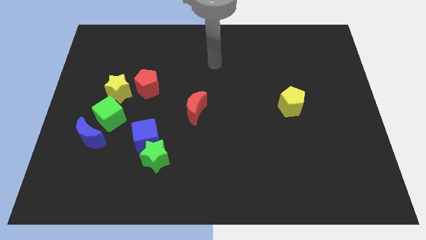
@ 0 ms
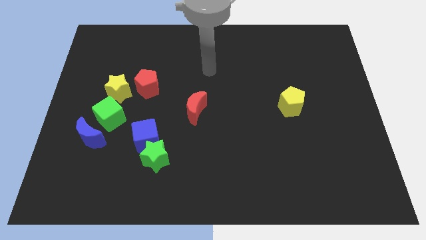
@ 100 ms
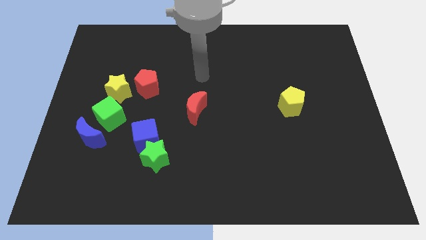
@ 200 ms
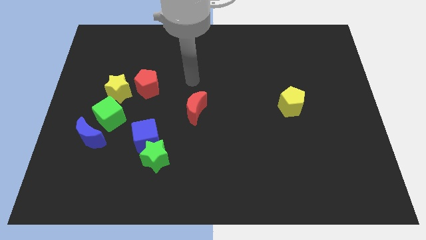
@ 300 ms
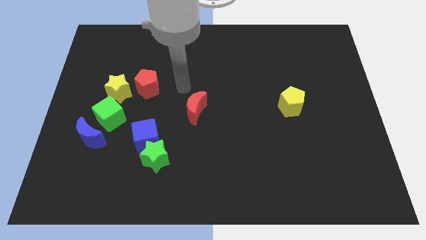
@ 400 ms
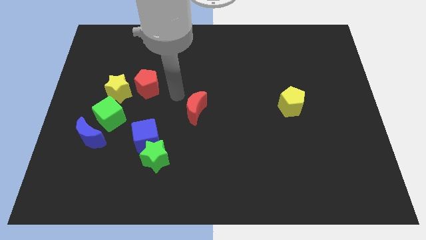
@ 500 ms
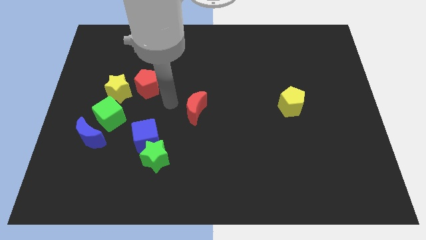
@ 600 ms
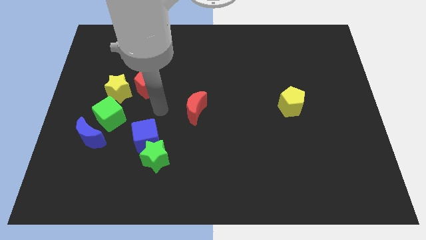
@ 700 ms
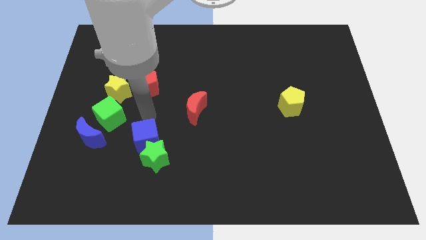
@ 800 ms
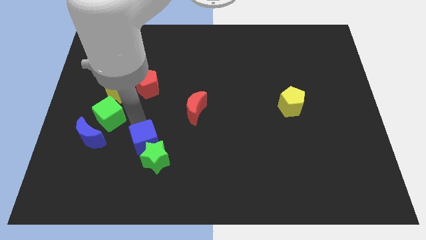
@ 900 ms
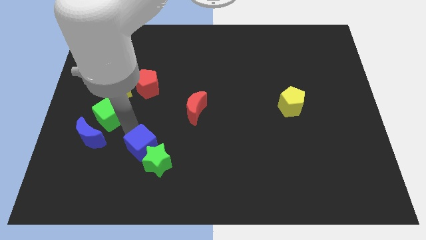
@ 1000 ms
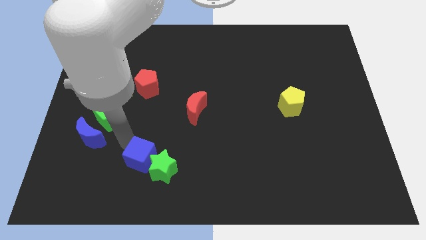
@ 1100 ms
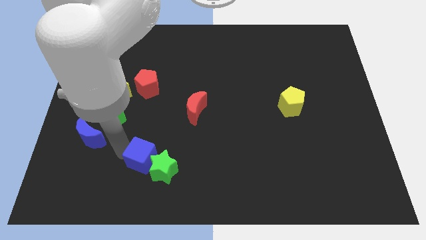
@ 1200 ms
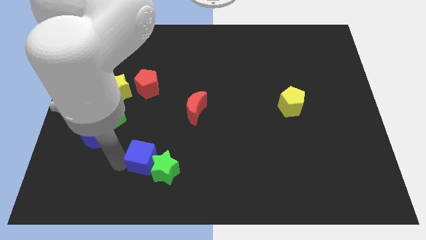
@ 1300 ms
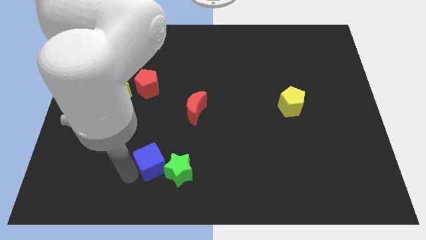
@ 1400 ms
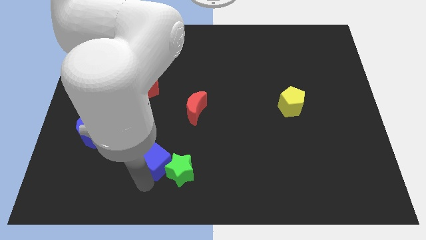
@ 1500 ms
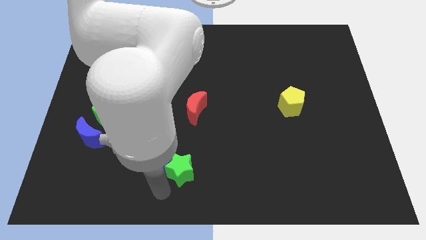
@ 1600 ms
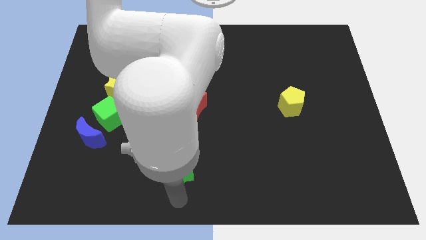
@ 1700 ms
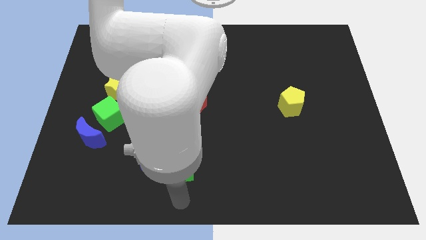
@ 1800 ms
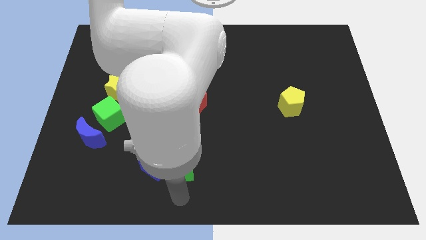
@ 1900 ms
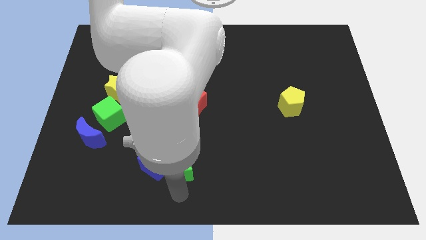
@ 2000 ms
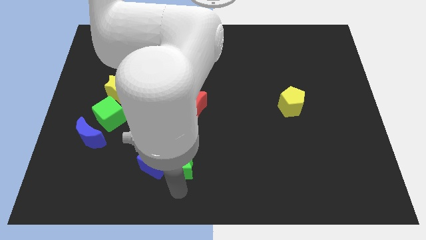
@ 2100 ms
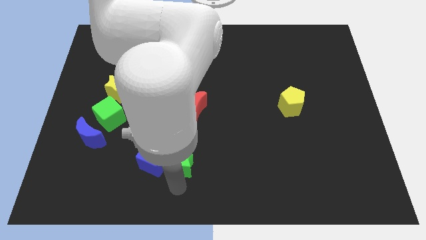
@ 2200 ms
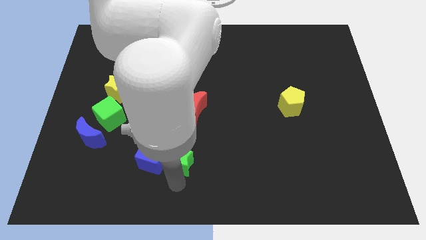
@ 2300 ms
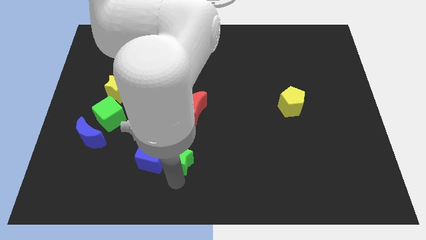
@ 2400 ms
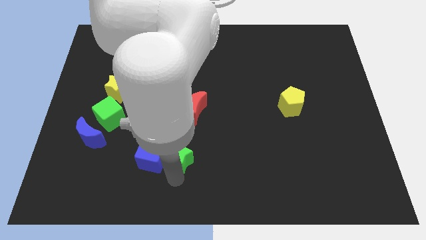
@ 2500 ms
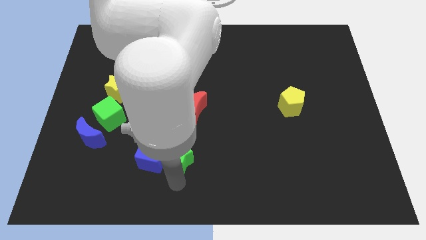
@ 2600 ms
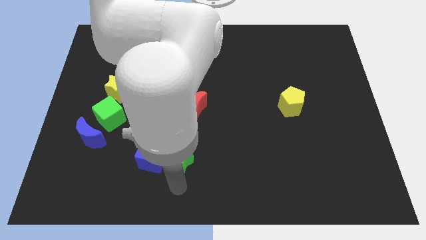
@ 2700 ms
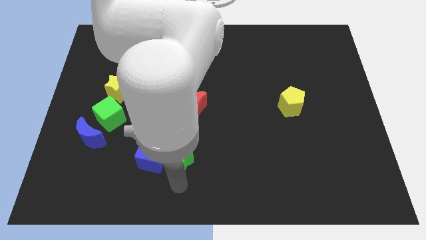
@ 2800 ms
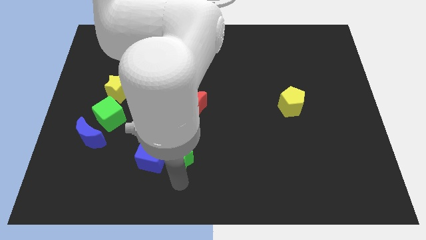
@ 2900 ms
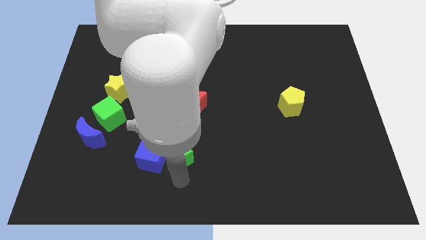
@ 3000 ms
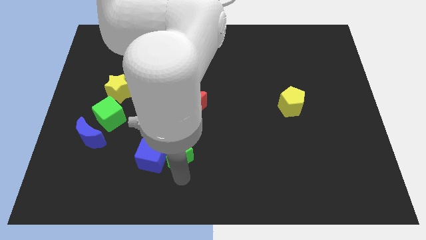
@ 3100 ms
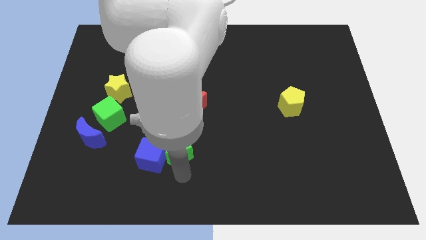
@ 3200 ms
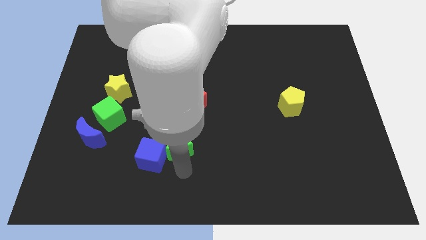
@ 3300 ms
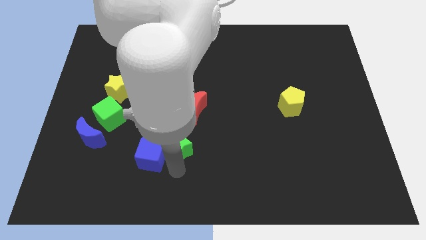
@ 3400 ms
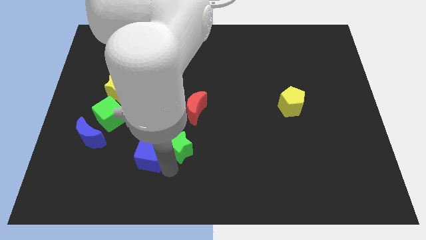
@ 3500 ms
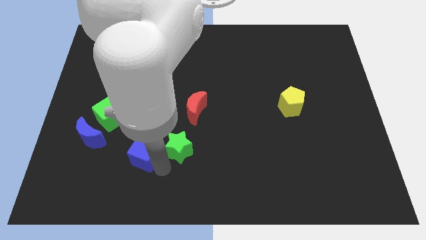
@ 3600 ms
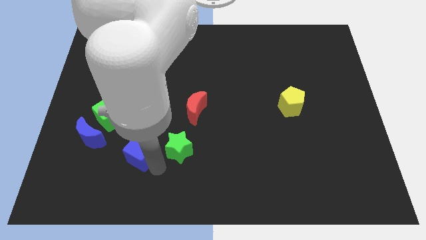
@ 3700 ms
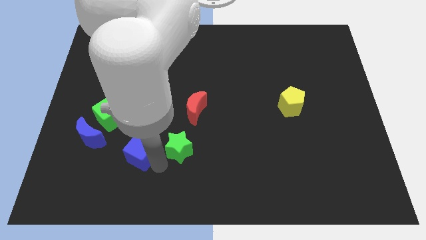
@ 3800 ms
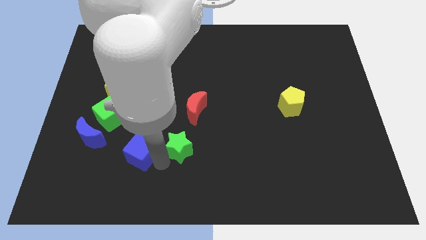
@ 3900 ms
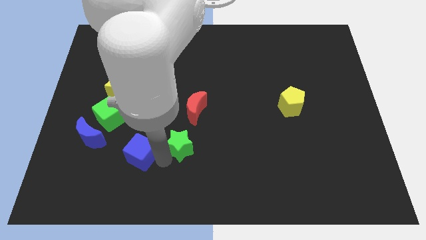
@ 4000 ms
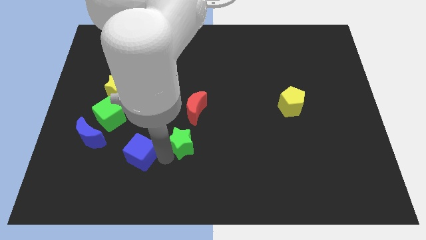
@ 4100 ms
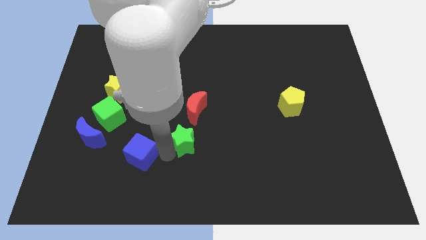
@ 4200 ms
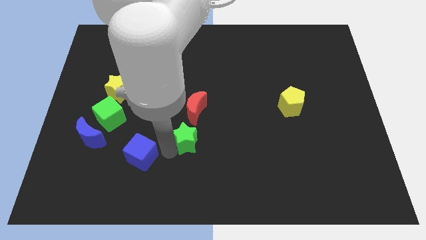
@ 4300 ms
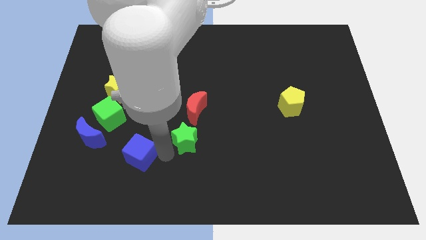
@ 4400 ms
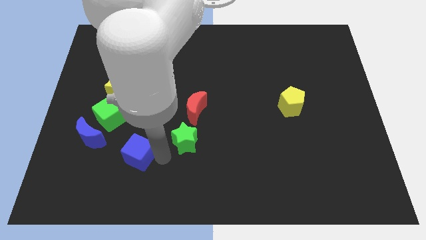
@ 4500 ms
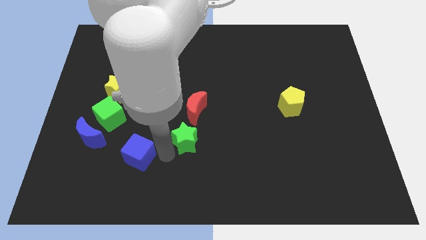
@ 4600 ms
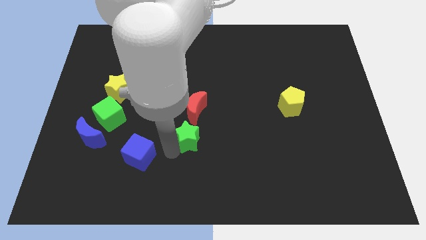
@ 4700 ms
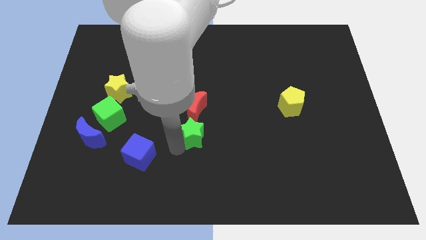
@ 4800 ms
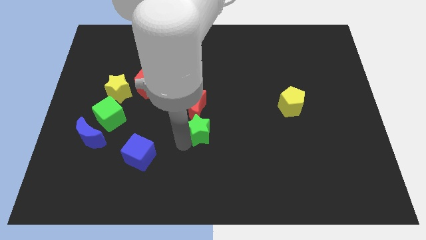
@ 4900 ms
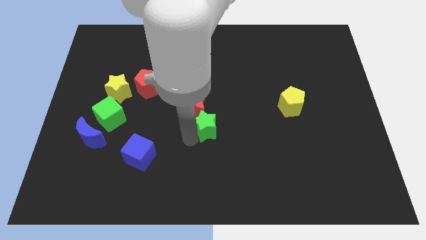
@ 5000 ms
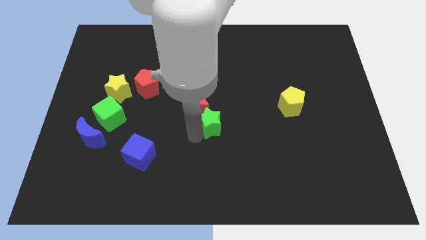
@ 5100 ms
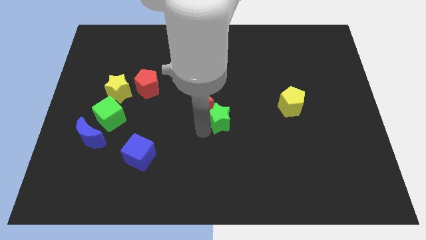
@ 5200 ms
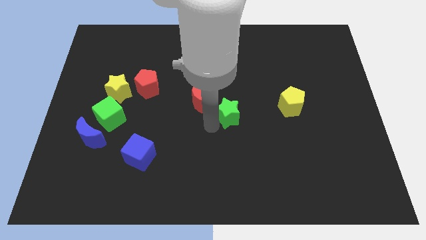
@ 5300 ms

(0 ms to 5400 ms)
slide the green star just left of the yellow pentagon

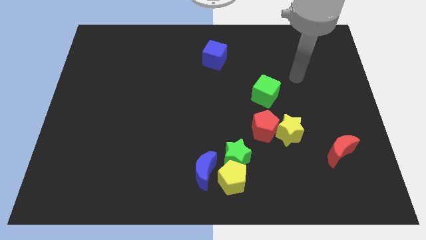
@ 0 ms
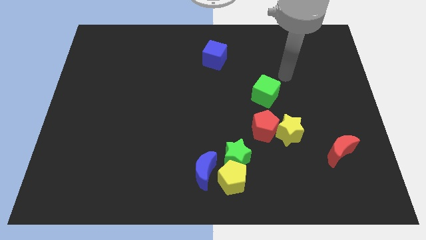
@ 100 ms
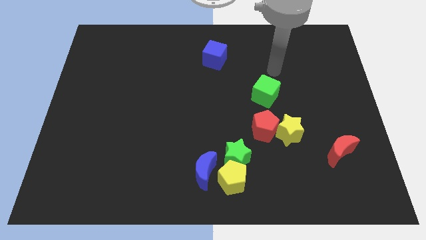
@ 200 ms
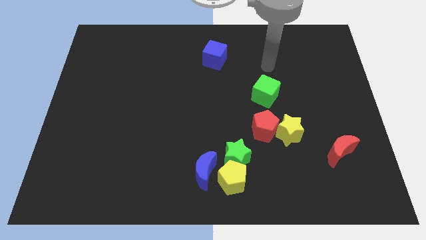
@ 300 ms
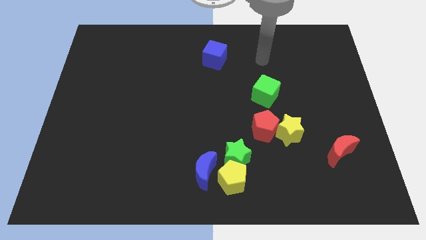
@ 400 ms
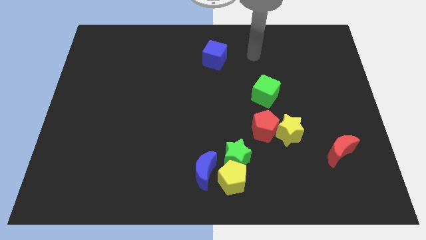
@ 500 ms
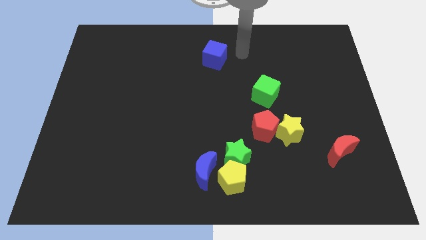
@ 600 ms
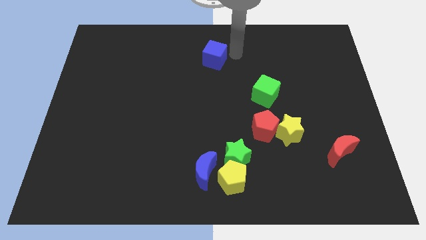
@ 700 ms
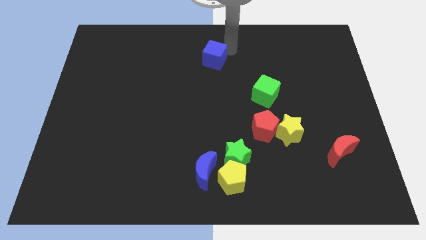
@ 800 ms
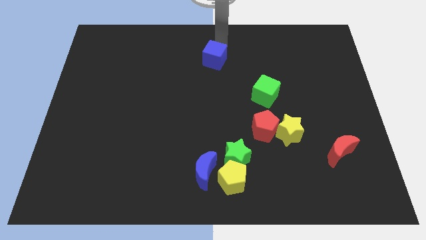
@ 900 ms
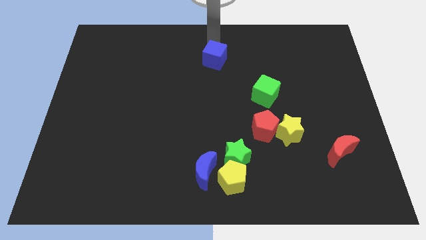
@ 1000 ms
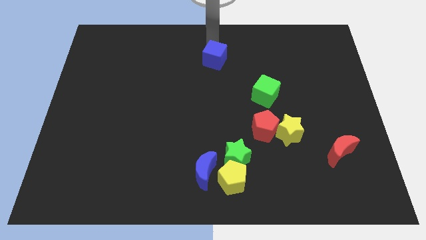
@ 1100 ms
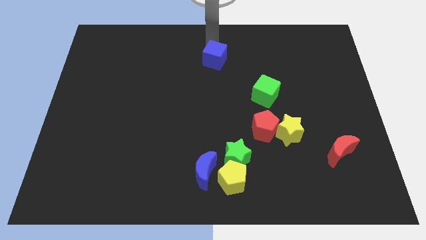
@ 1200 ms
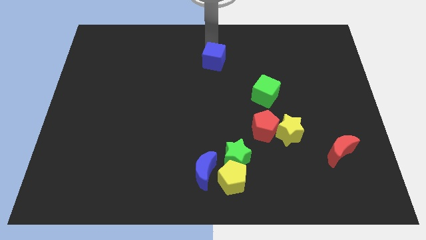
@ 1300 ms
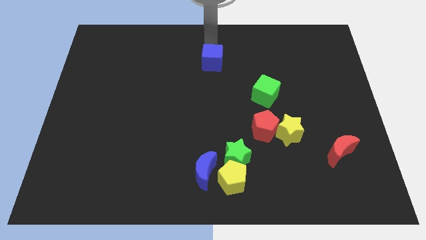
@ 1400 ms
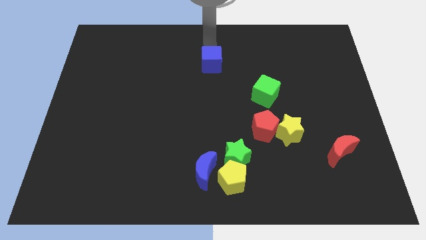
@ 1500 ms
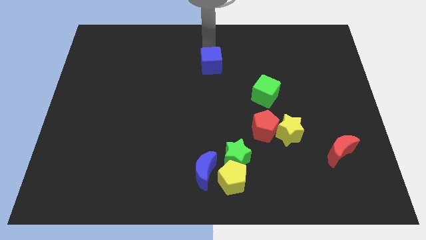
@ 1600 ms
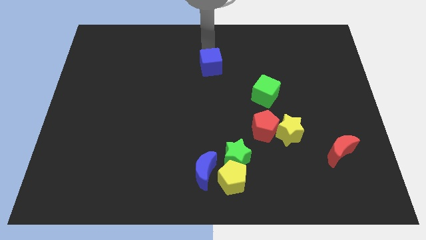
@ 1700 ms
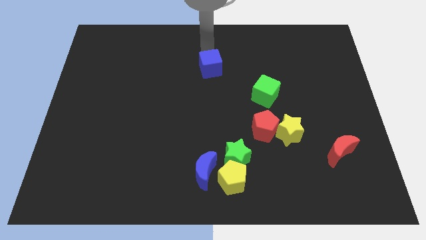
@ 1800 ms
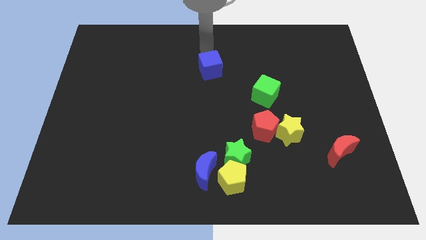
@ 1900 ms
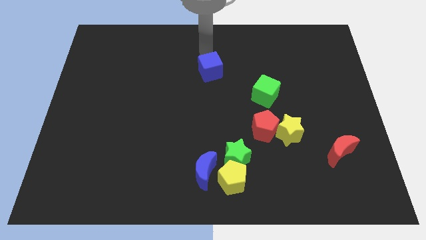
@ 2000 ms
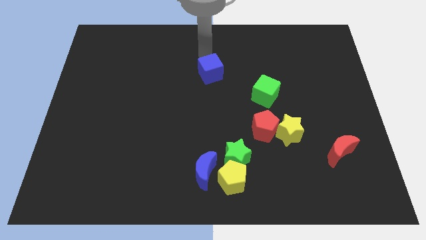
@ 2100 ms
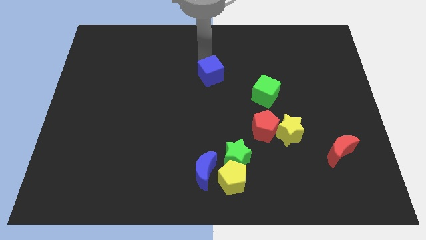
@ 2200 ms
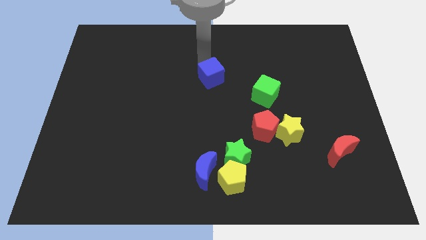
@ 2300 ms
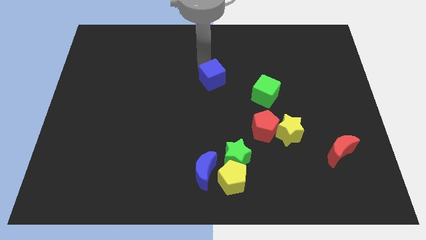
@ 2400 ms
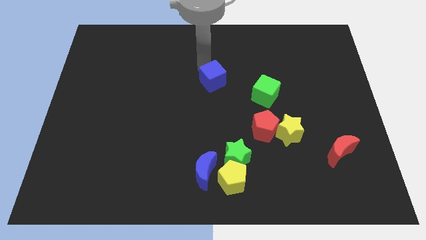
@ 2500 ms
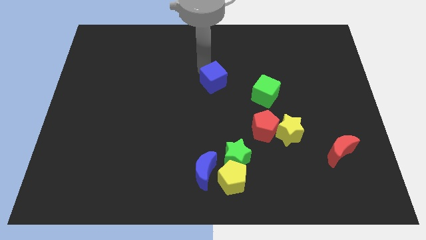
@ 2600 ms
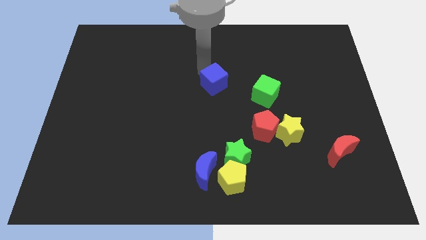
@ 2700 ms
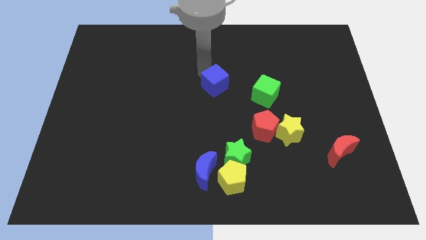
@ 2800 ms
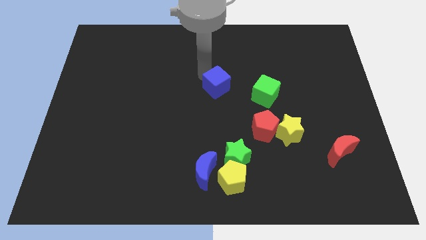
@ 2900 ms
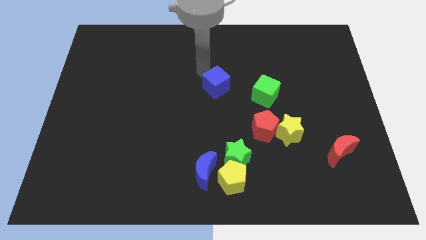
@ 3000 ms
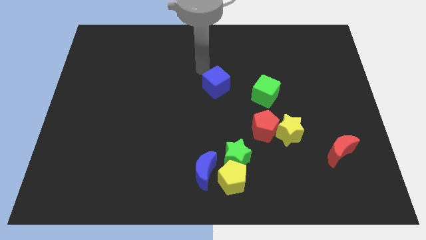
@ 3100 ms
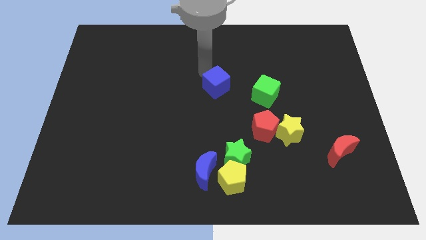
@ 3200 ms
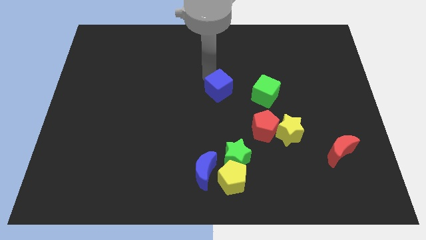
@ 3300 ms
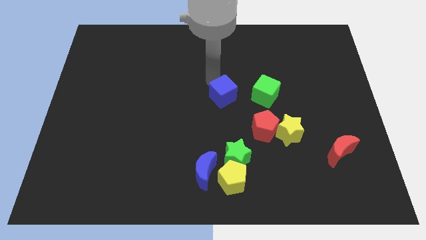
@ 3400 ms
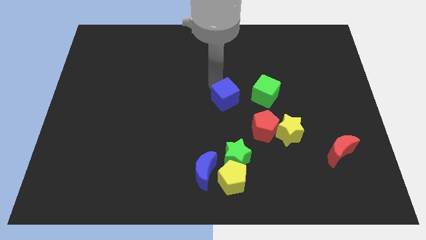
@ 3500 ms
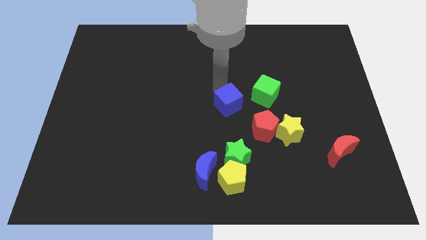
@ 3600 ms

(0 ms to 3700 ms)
slide the blue cube above the green star
